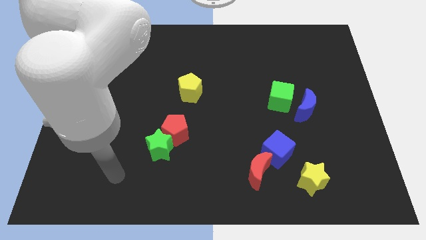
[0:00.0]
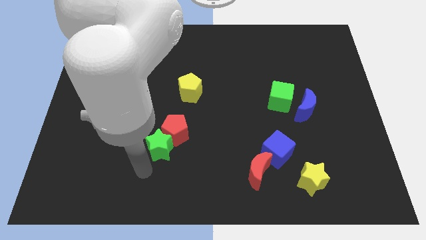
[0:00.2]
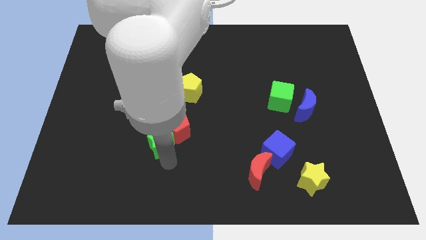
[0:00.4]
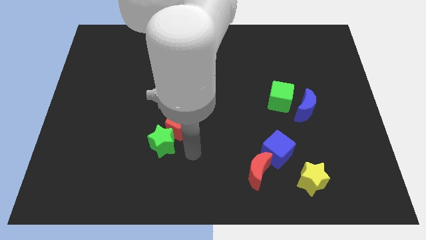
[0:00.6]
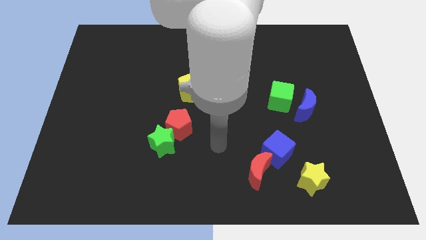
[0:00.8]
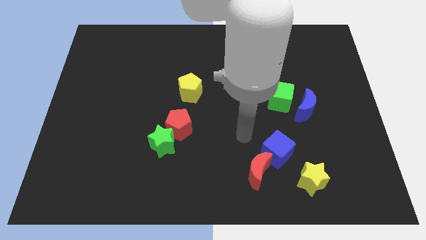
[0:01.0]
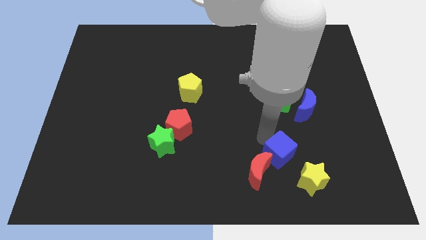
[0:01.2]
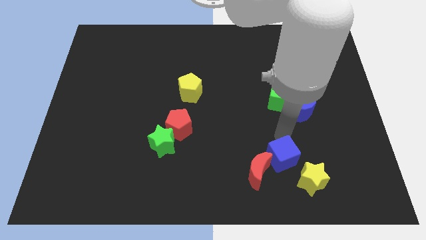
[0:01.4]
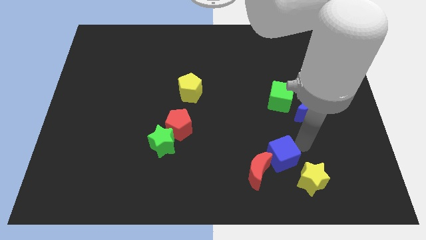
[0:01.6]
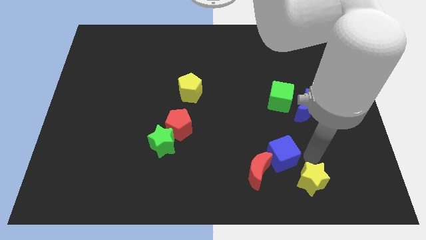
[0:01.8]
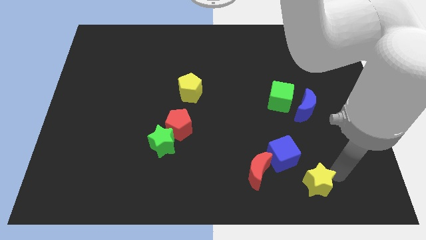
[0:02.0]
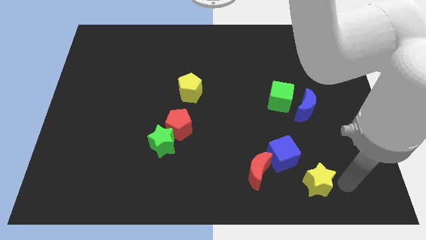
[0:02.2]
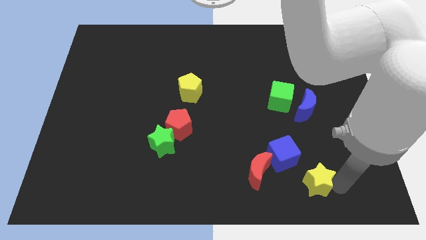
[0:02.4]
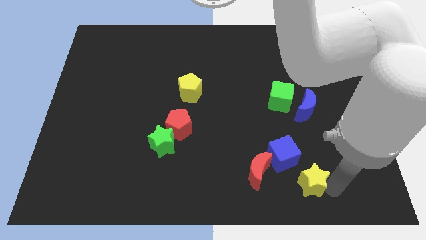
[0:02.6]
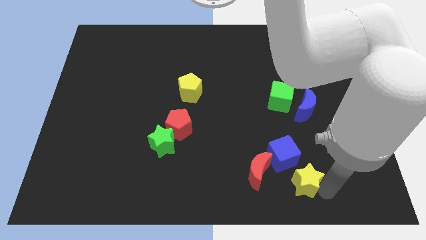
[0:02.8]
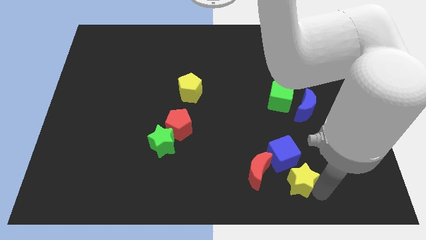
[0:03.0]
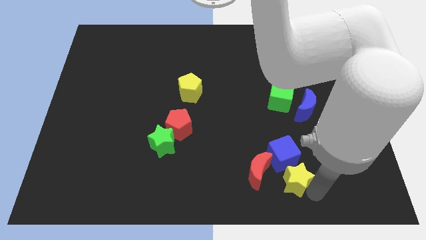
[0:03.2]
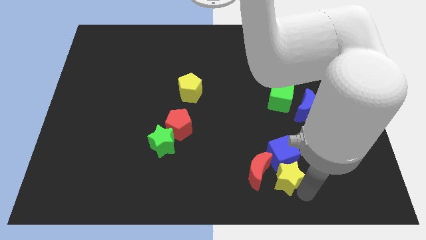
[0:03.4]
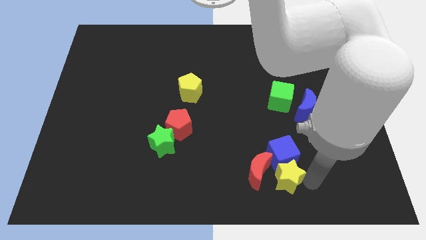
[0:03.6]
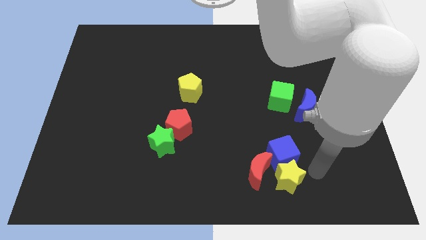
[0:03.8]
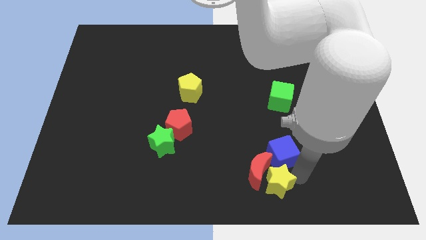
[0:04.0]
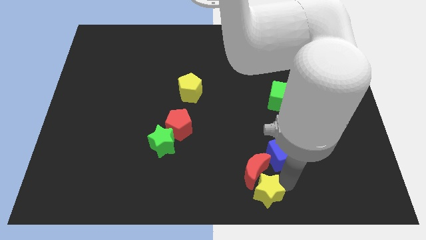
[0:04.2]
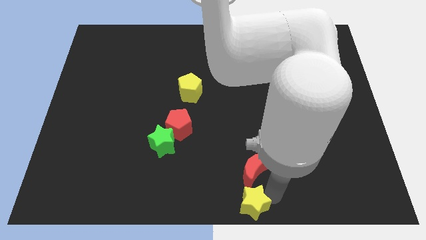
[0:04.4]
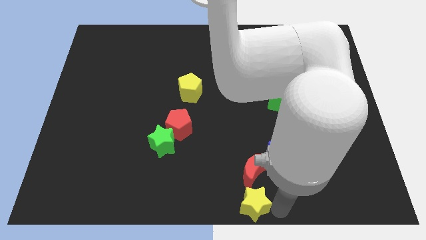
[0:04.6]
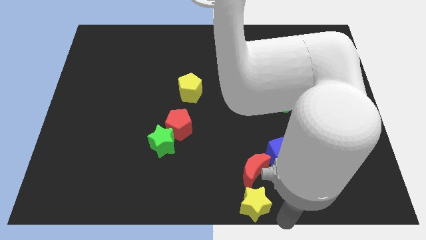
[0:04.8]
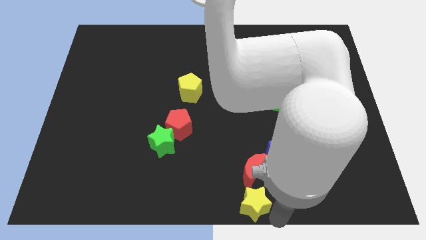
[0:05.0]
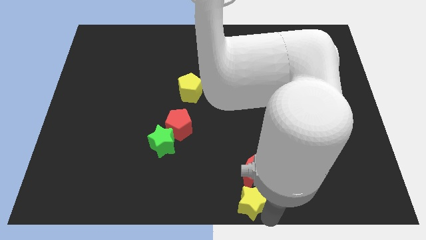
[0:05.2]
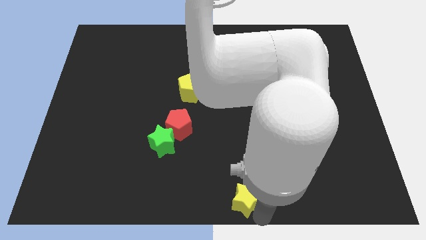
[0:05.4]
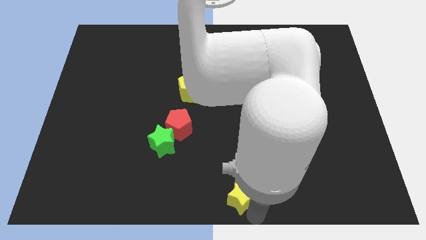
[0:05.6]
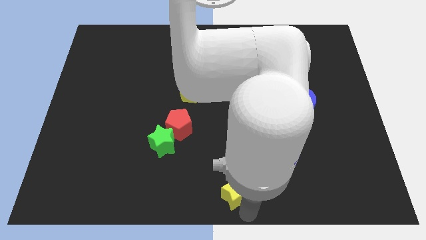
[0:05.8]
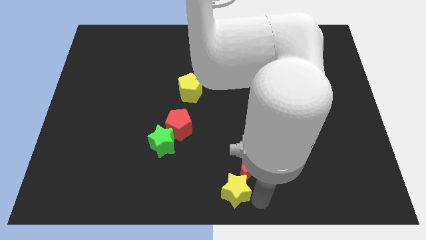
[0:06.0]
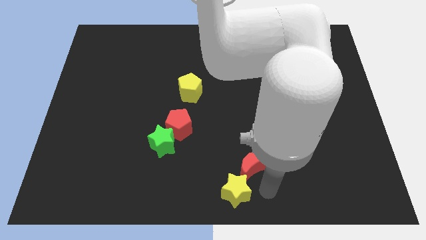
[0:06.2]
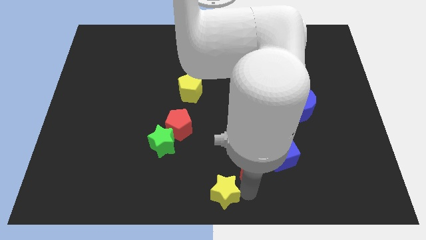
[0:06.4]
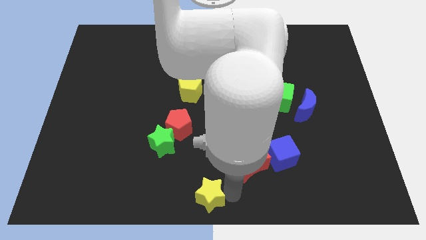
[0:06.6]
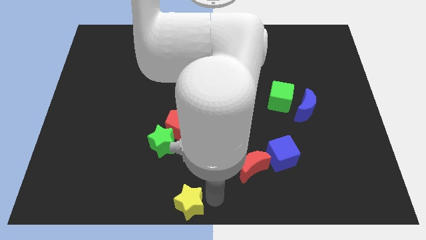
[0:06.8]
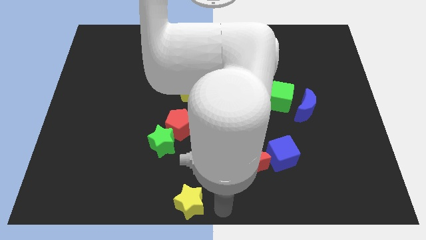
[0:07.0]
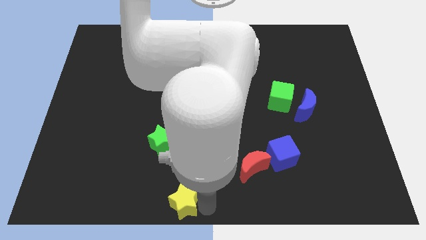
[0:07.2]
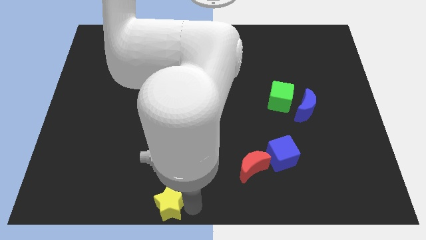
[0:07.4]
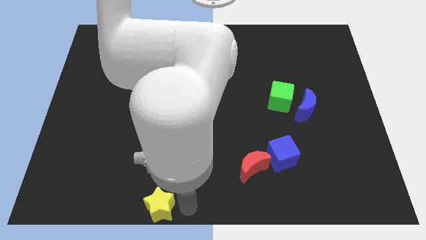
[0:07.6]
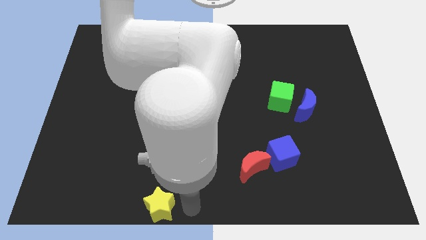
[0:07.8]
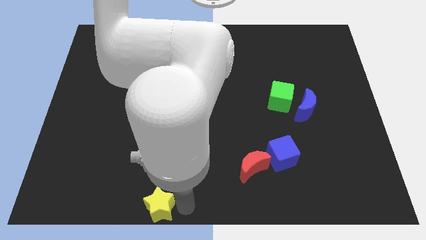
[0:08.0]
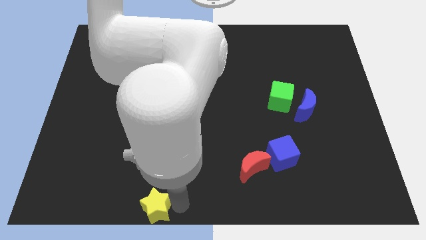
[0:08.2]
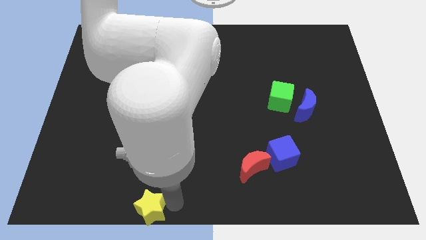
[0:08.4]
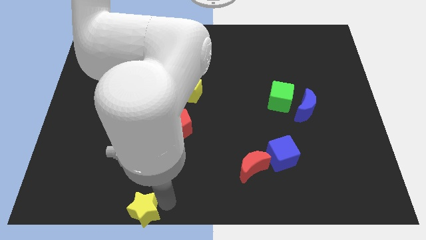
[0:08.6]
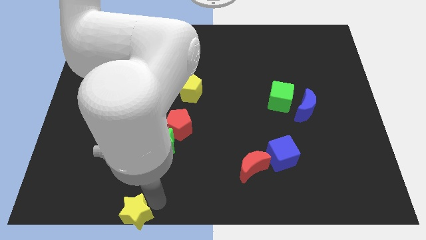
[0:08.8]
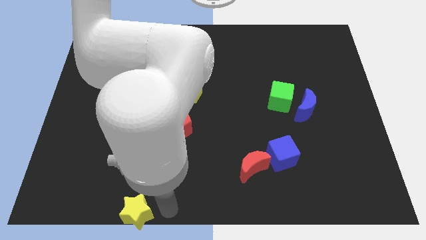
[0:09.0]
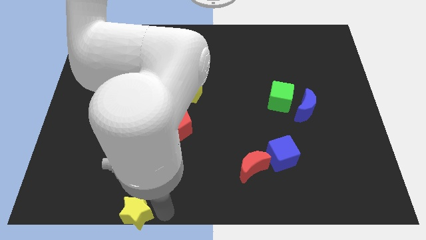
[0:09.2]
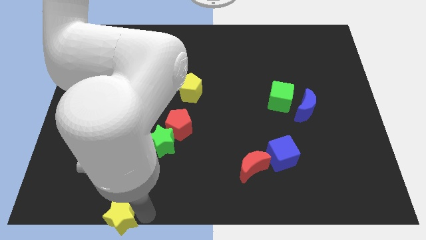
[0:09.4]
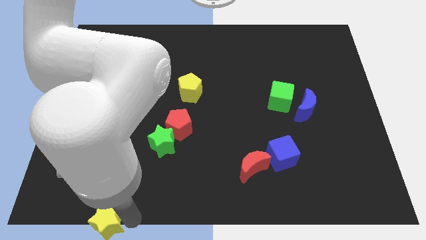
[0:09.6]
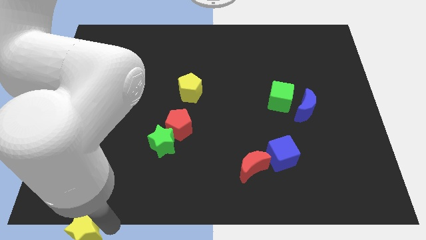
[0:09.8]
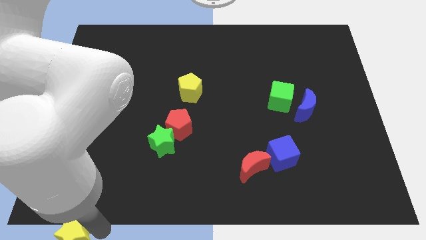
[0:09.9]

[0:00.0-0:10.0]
move the yellow star to the bottom left of the board

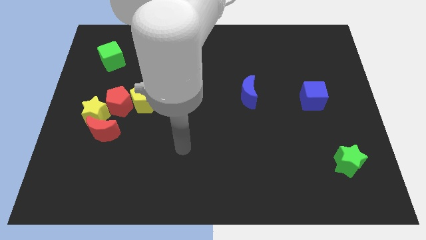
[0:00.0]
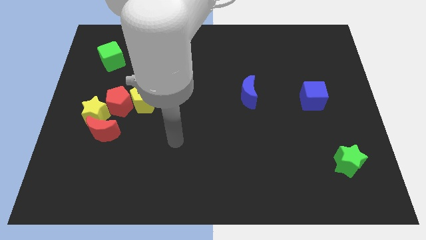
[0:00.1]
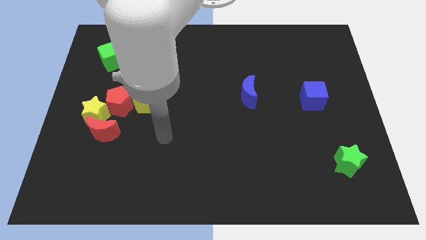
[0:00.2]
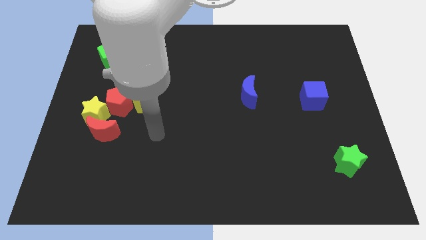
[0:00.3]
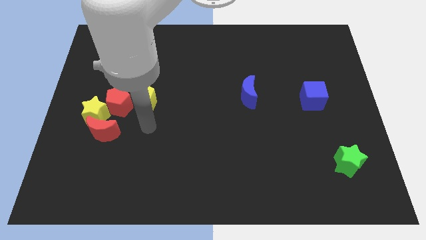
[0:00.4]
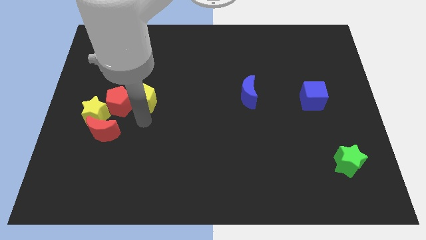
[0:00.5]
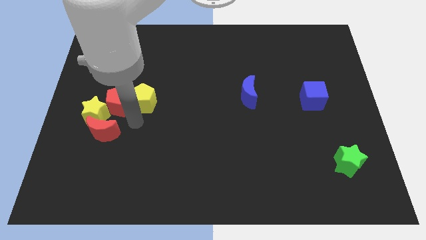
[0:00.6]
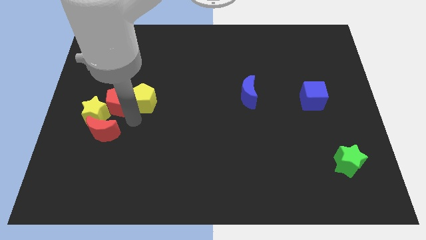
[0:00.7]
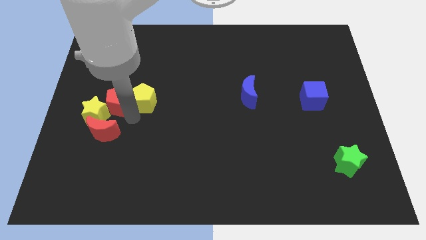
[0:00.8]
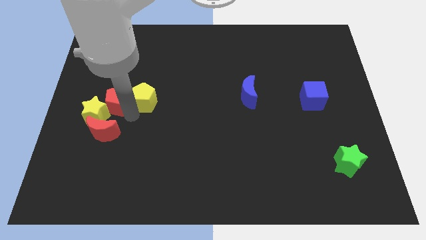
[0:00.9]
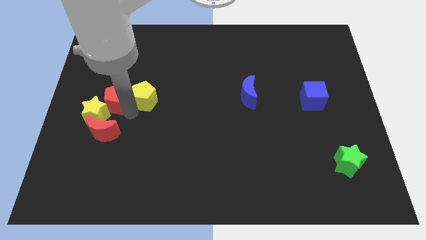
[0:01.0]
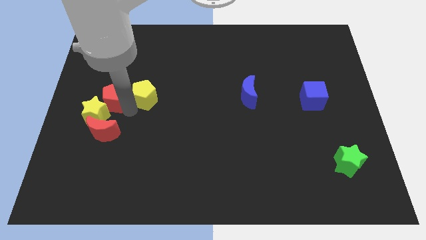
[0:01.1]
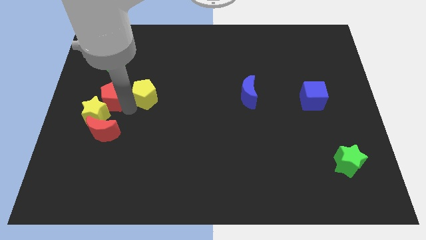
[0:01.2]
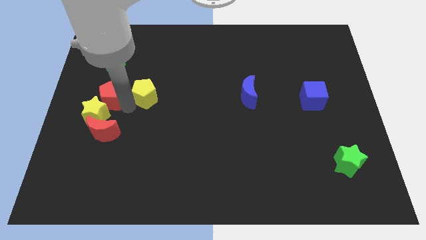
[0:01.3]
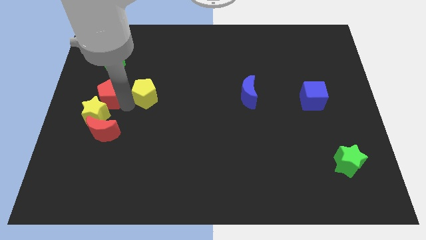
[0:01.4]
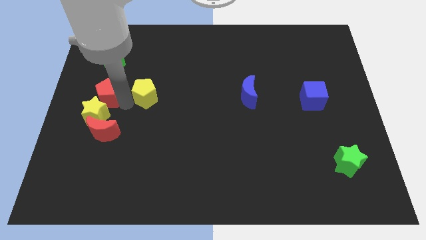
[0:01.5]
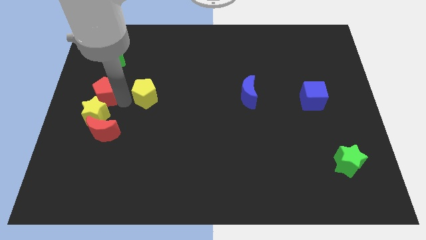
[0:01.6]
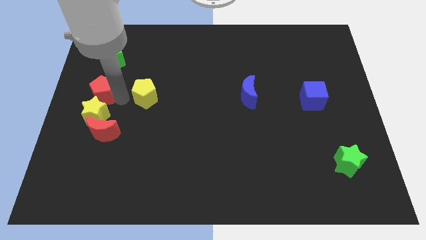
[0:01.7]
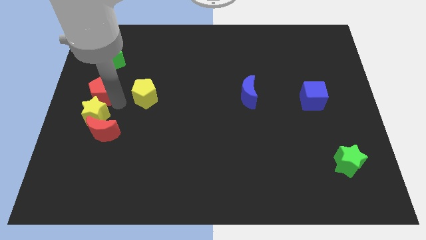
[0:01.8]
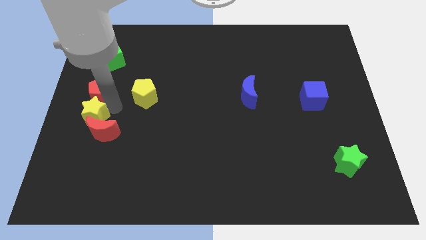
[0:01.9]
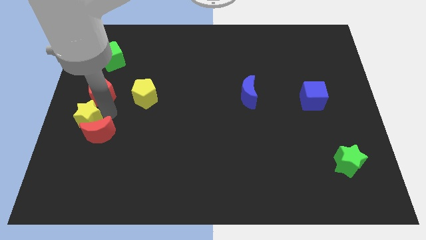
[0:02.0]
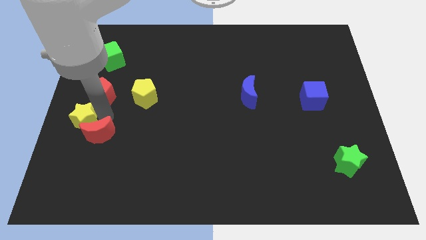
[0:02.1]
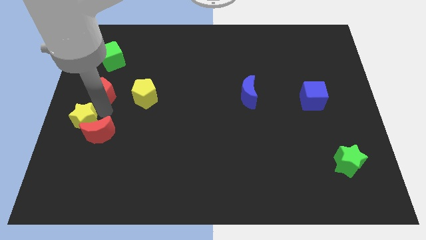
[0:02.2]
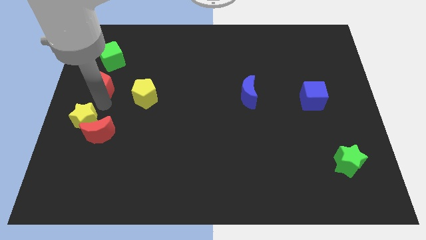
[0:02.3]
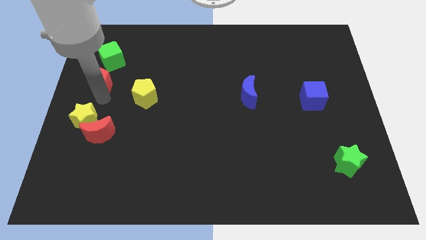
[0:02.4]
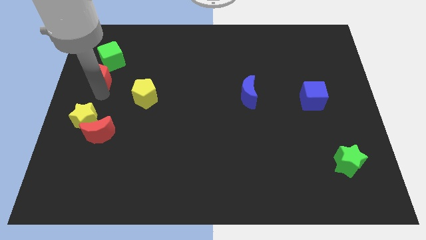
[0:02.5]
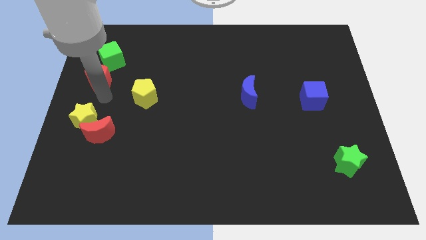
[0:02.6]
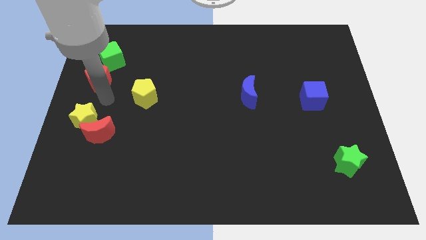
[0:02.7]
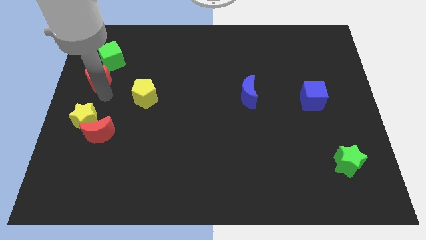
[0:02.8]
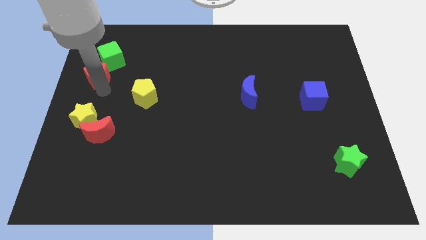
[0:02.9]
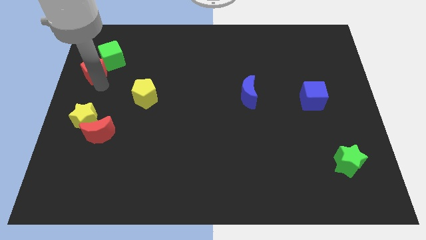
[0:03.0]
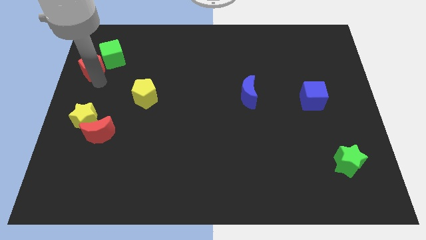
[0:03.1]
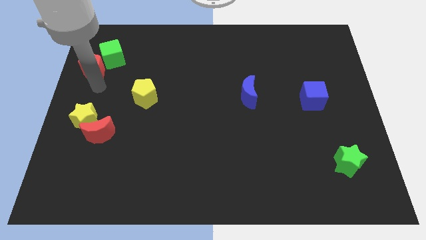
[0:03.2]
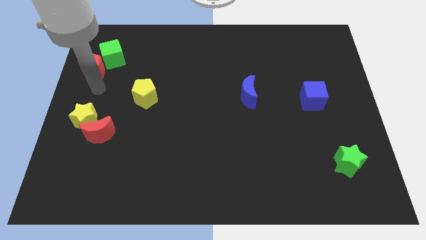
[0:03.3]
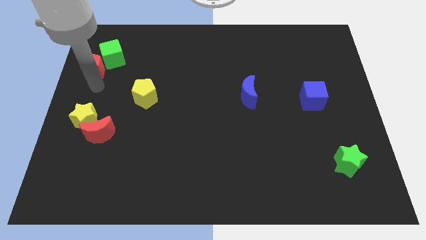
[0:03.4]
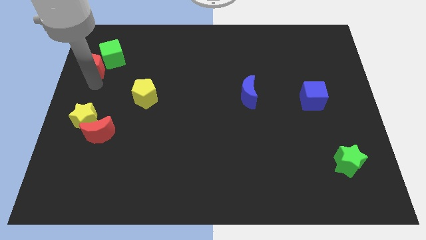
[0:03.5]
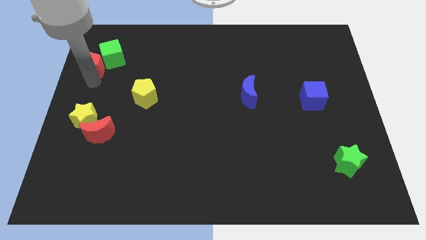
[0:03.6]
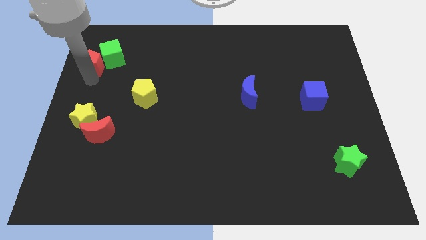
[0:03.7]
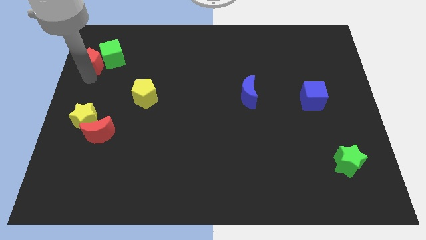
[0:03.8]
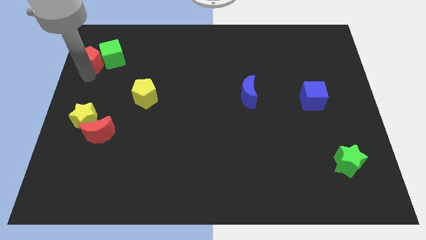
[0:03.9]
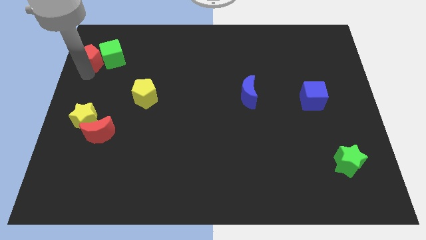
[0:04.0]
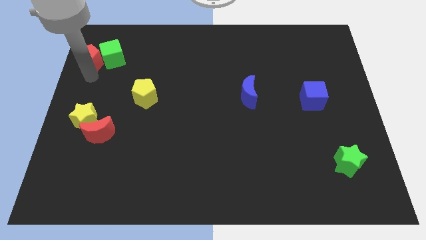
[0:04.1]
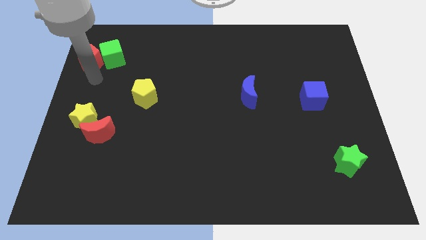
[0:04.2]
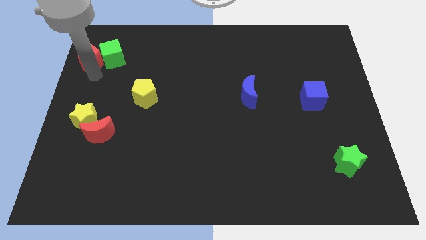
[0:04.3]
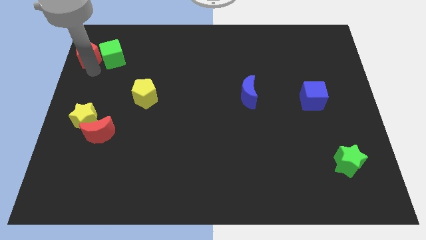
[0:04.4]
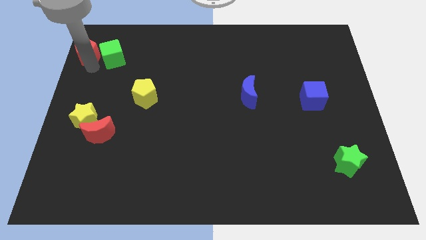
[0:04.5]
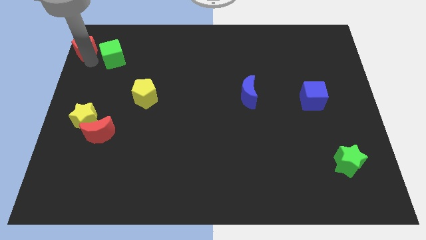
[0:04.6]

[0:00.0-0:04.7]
slide the red pentagon to the upper left corner
